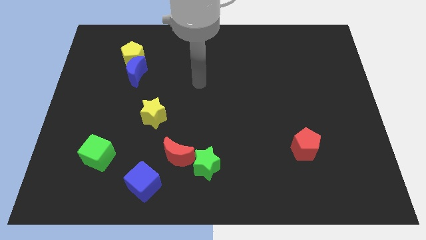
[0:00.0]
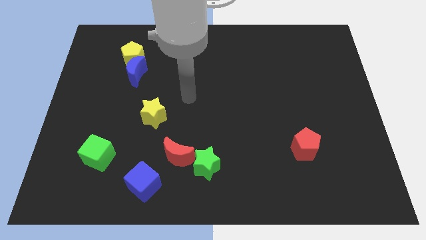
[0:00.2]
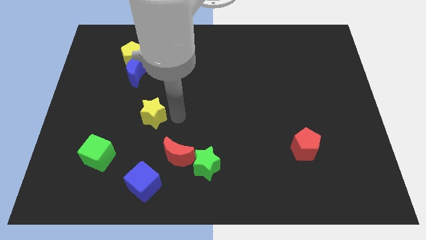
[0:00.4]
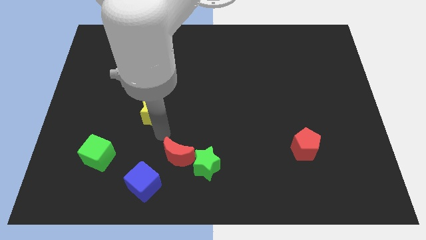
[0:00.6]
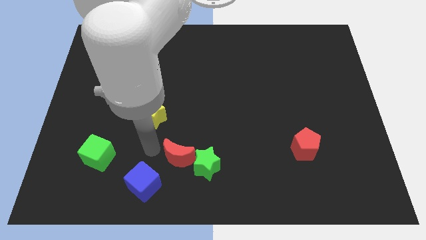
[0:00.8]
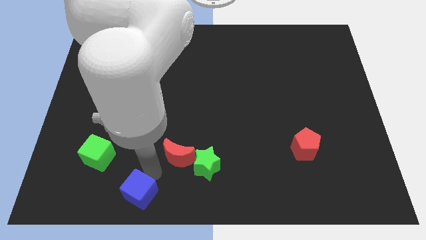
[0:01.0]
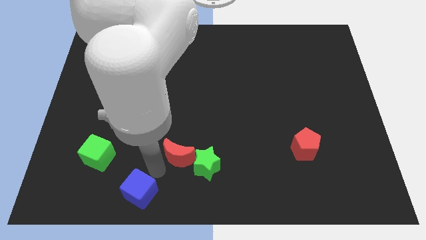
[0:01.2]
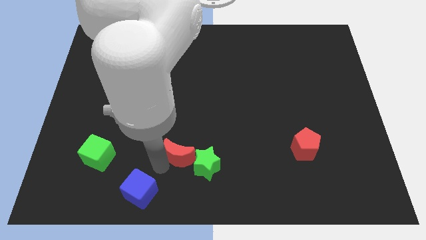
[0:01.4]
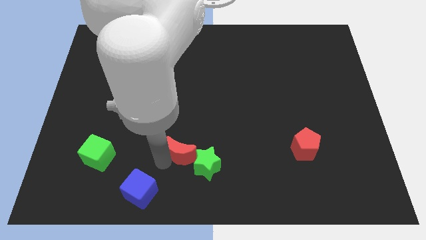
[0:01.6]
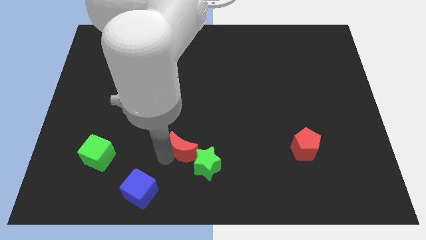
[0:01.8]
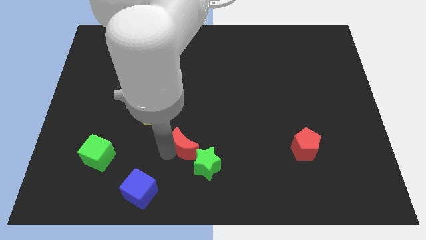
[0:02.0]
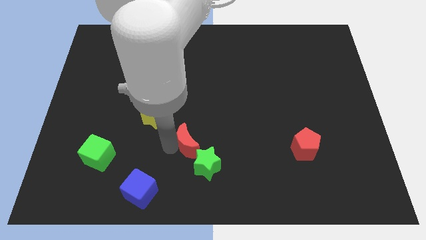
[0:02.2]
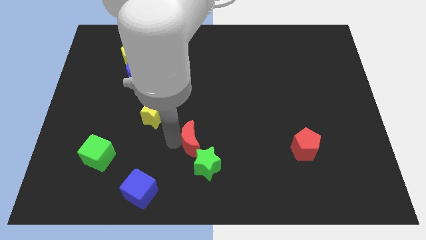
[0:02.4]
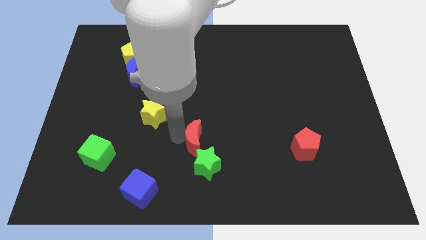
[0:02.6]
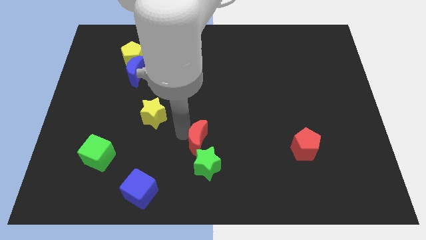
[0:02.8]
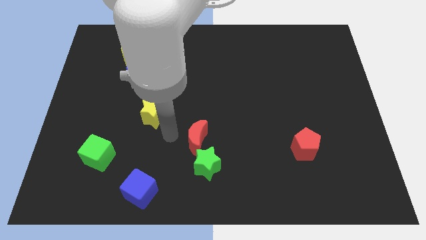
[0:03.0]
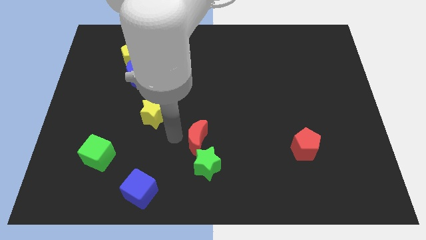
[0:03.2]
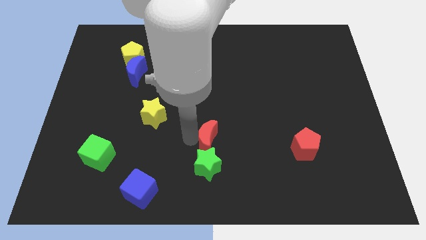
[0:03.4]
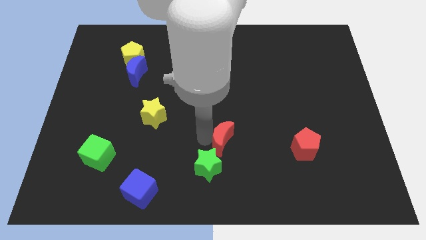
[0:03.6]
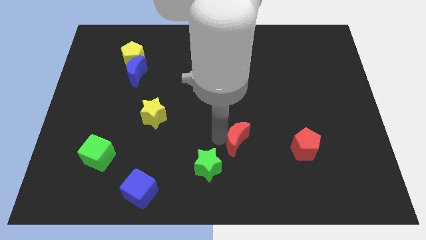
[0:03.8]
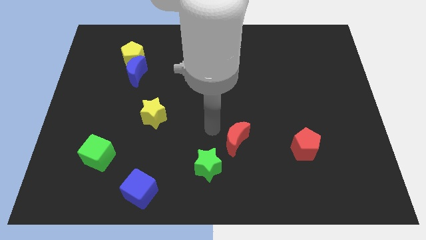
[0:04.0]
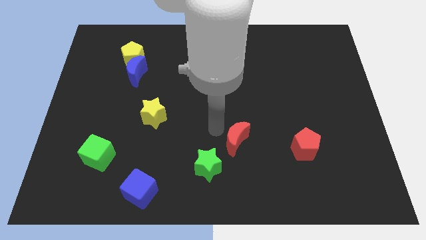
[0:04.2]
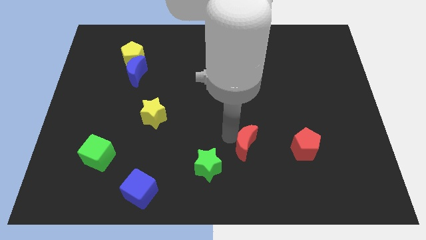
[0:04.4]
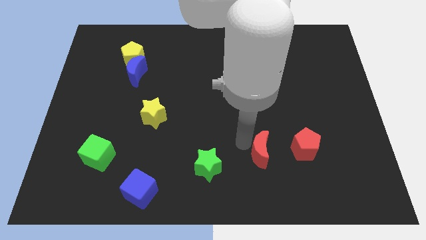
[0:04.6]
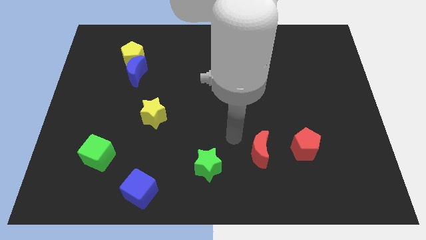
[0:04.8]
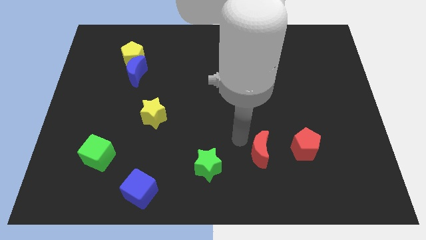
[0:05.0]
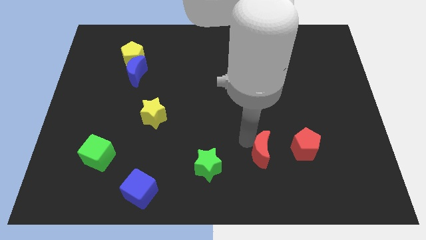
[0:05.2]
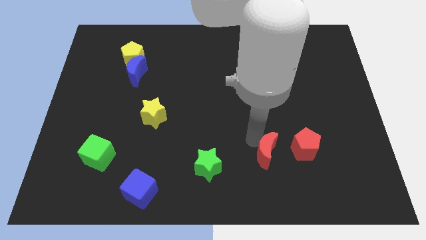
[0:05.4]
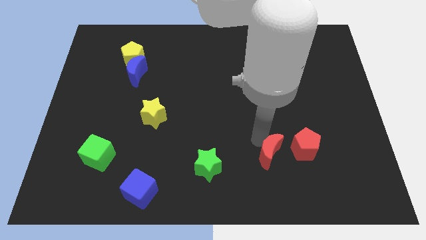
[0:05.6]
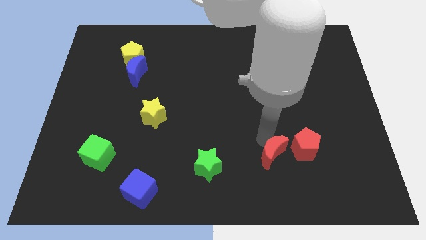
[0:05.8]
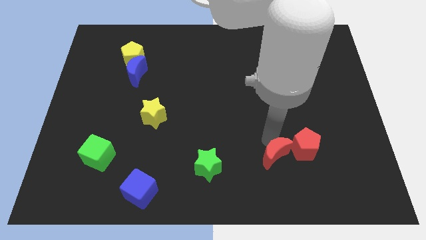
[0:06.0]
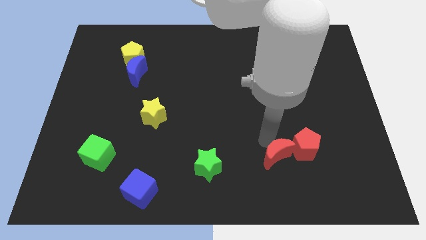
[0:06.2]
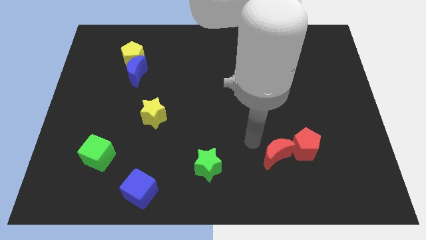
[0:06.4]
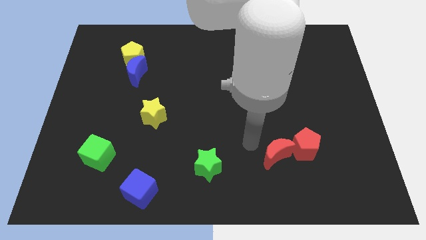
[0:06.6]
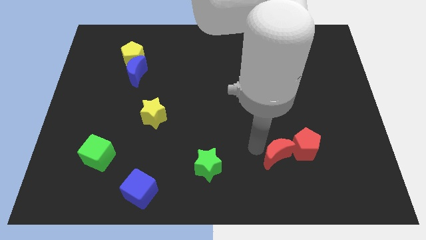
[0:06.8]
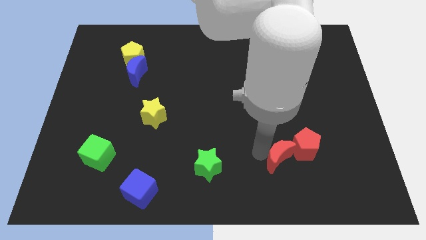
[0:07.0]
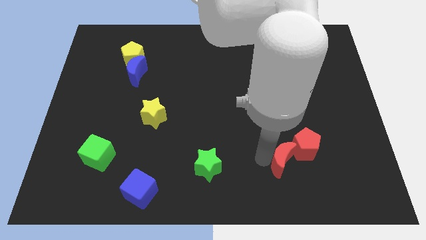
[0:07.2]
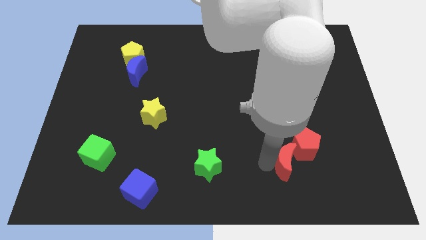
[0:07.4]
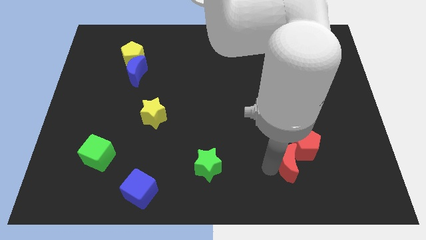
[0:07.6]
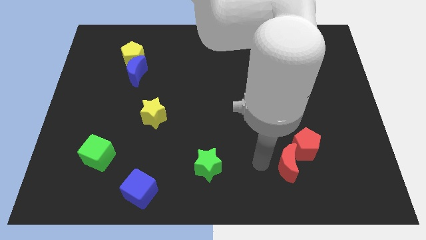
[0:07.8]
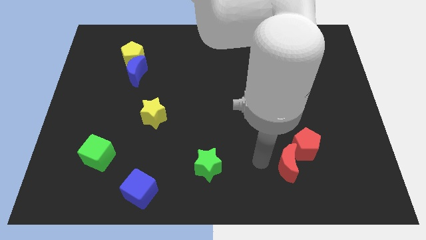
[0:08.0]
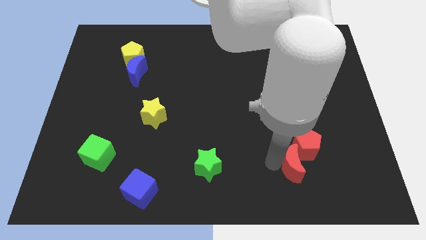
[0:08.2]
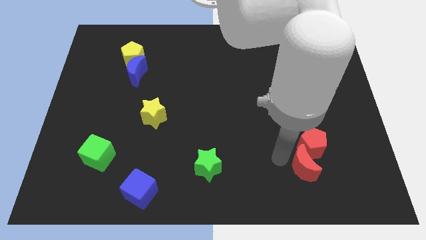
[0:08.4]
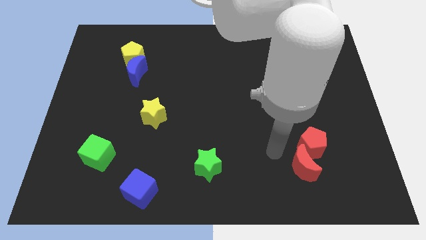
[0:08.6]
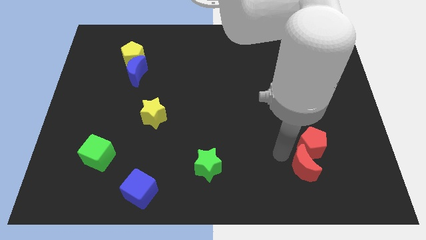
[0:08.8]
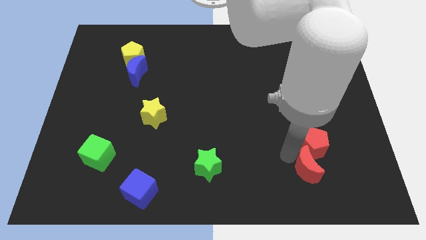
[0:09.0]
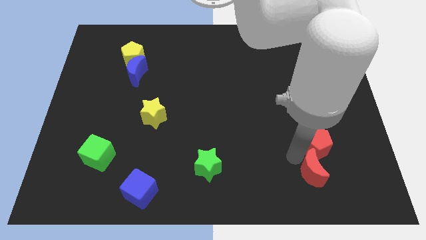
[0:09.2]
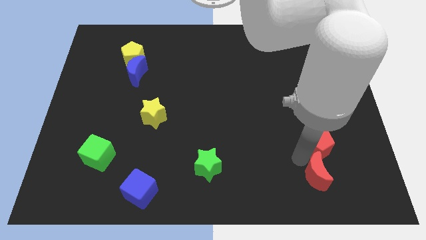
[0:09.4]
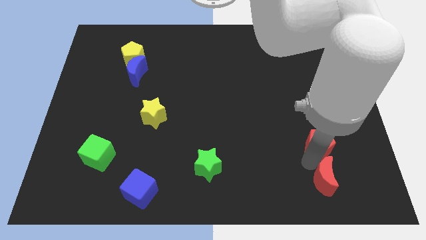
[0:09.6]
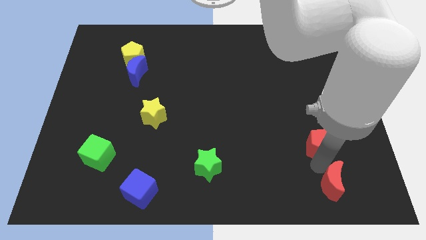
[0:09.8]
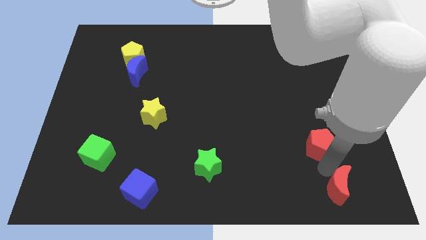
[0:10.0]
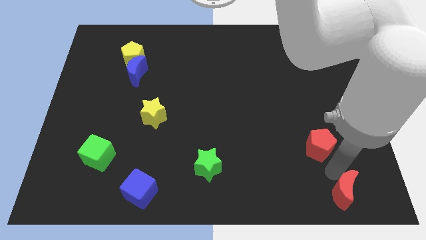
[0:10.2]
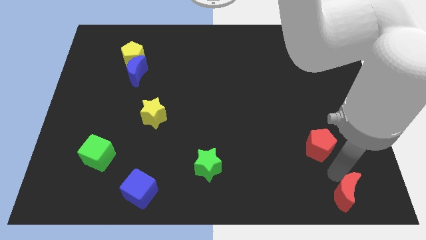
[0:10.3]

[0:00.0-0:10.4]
slide the red moon to the bottom right of the board
